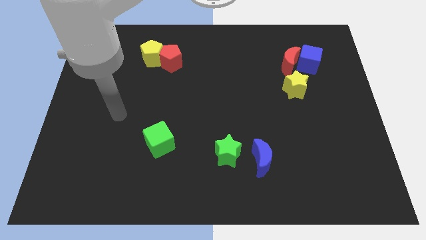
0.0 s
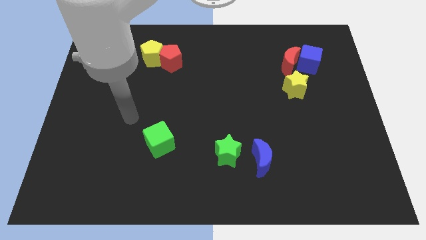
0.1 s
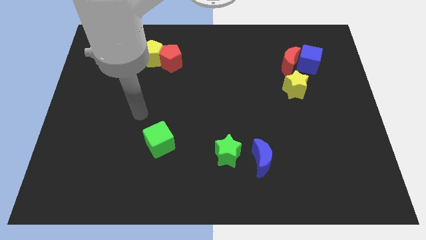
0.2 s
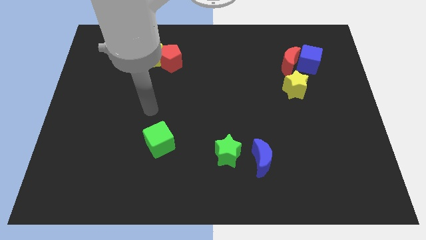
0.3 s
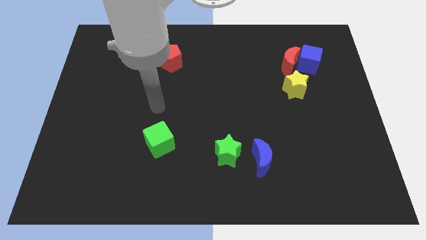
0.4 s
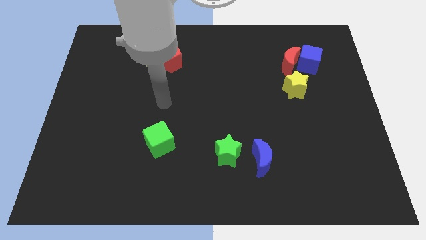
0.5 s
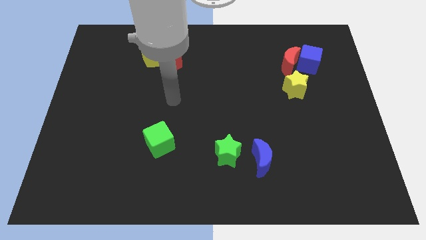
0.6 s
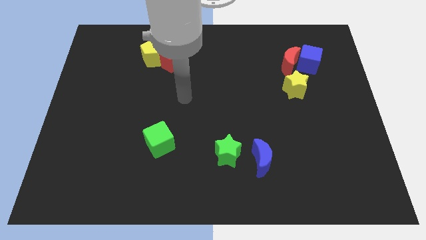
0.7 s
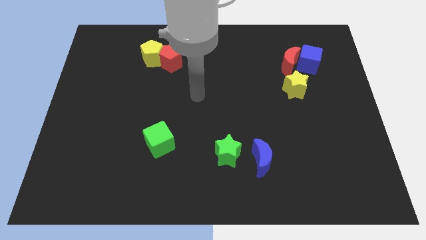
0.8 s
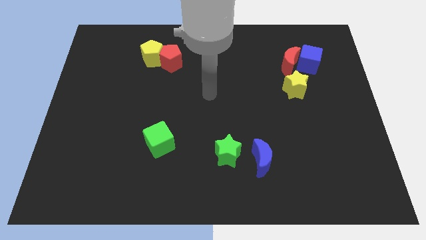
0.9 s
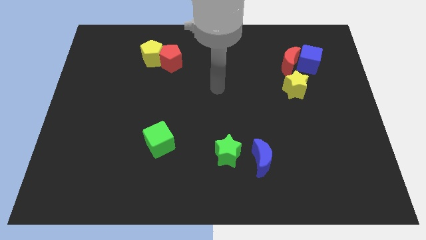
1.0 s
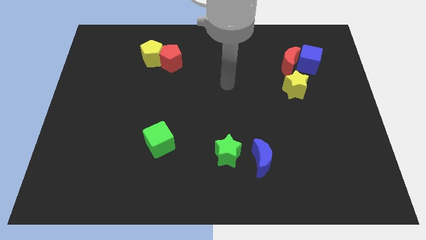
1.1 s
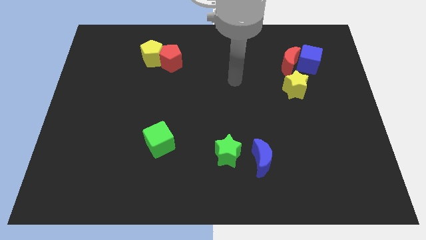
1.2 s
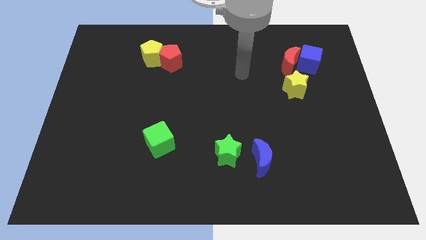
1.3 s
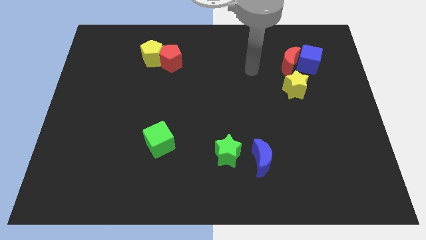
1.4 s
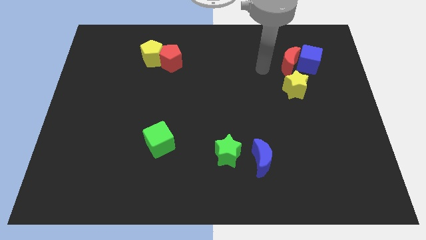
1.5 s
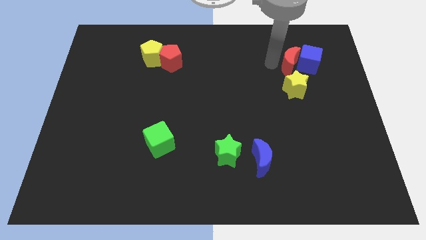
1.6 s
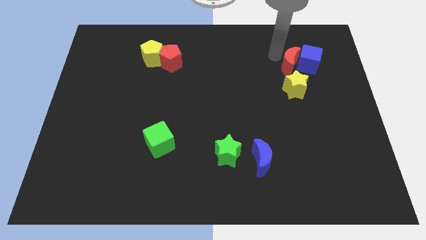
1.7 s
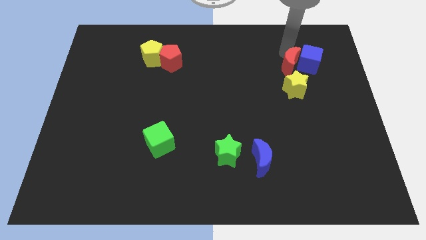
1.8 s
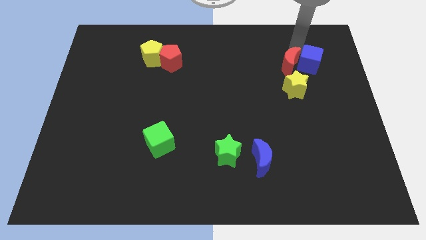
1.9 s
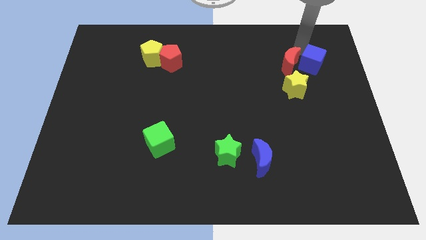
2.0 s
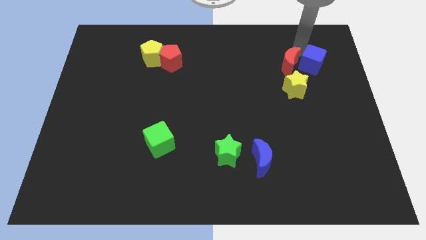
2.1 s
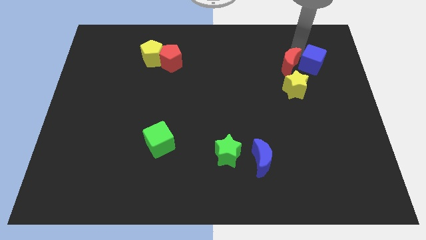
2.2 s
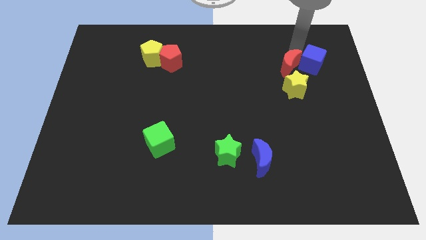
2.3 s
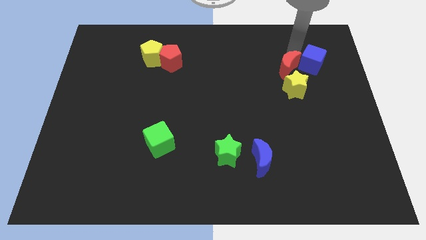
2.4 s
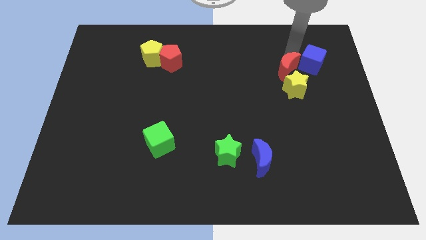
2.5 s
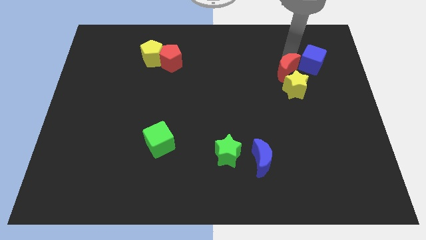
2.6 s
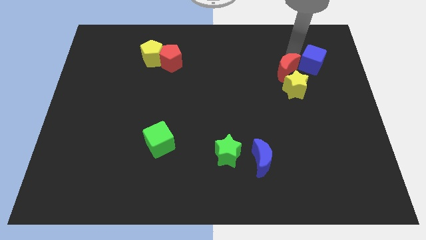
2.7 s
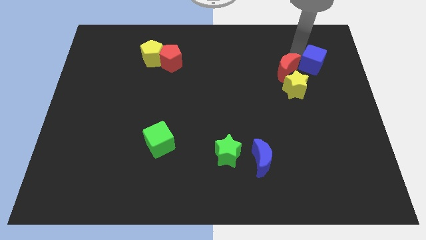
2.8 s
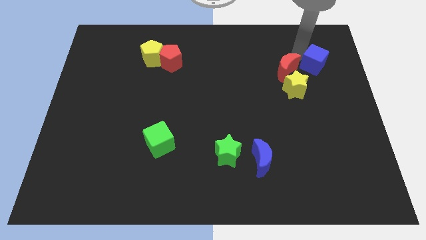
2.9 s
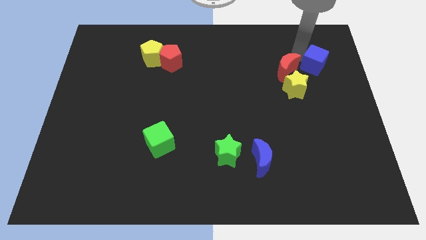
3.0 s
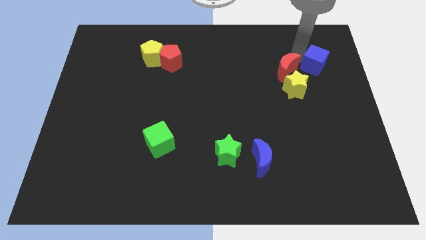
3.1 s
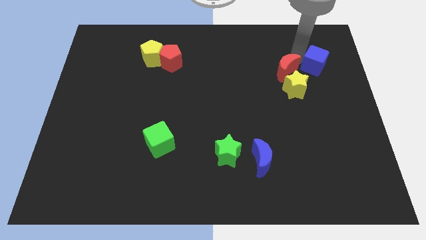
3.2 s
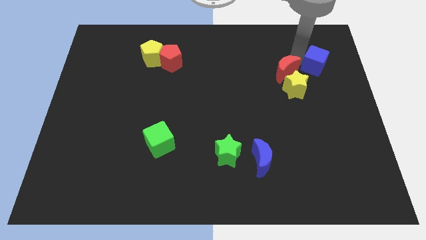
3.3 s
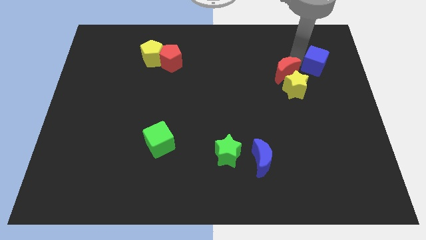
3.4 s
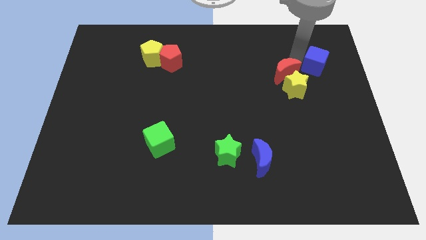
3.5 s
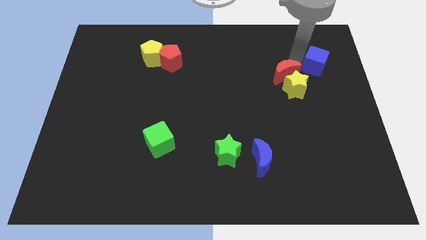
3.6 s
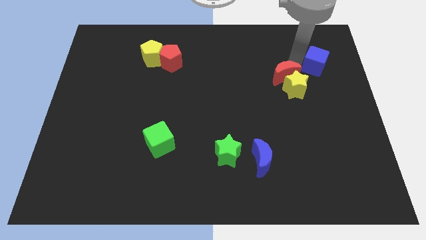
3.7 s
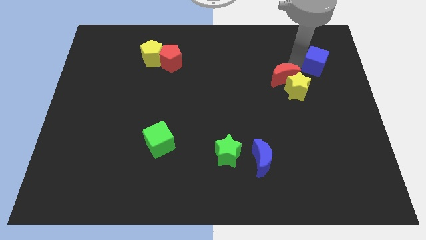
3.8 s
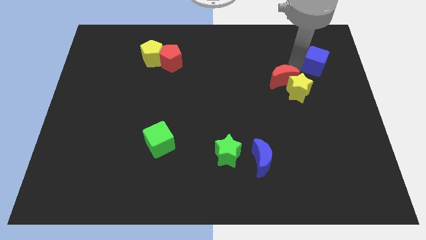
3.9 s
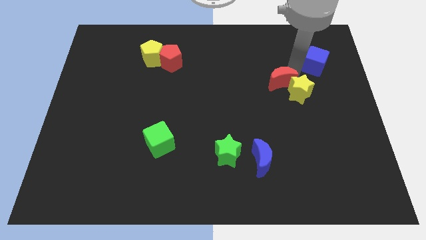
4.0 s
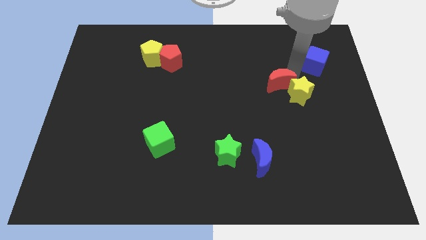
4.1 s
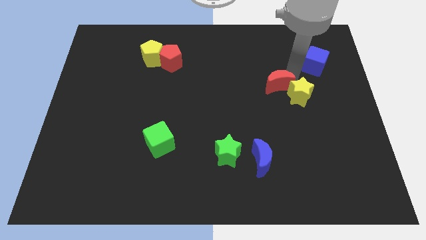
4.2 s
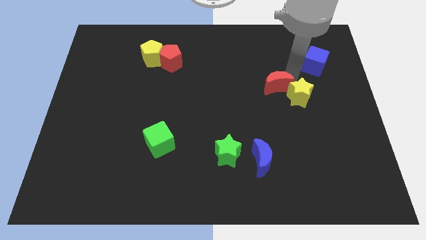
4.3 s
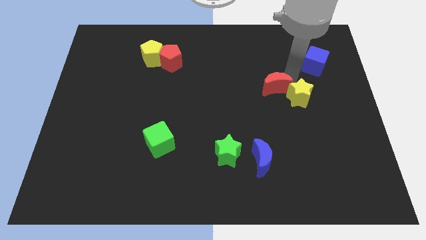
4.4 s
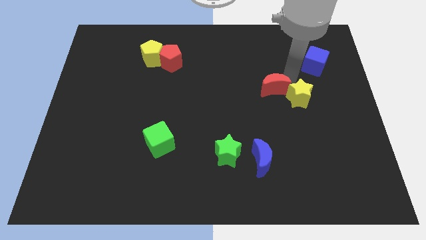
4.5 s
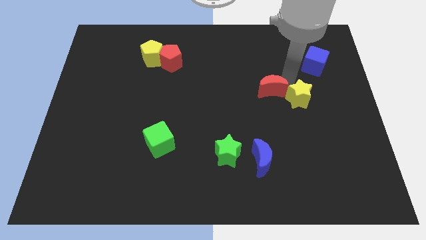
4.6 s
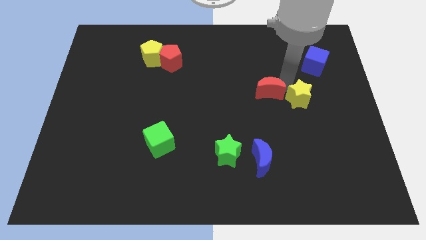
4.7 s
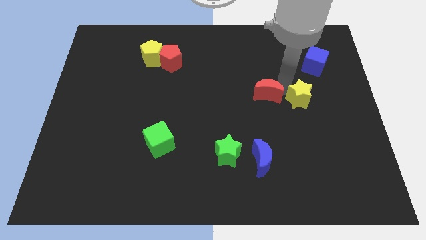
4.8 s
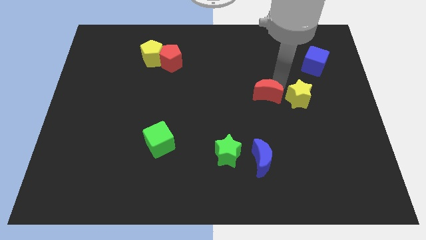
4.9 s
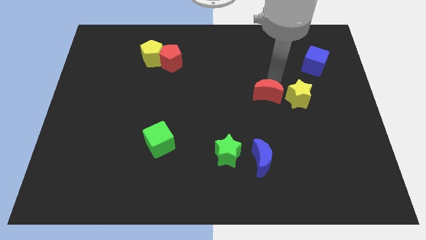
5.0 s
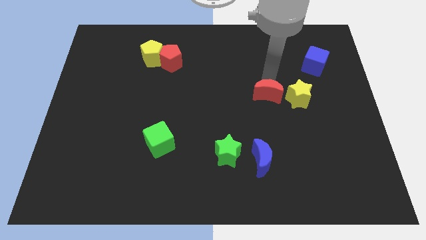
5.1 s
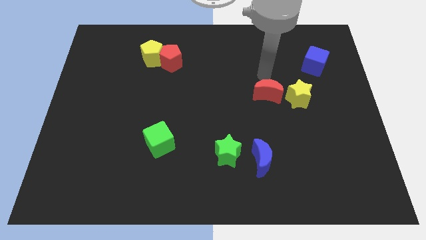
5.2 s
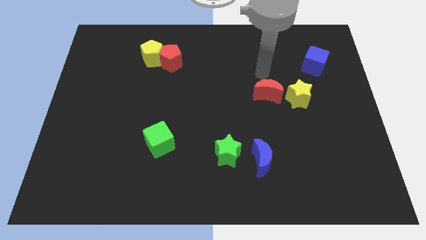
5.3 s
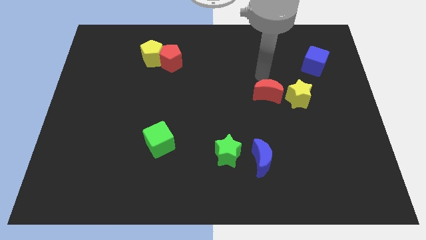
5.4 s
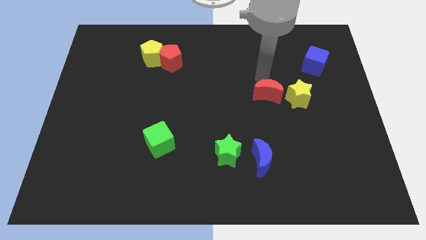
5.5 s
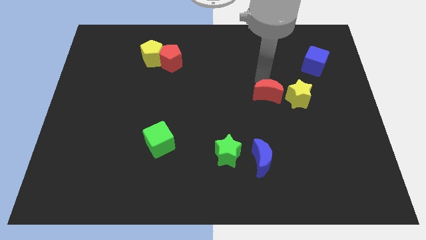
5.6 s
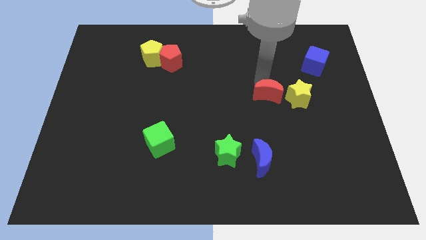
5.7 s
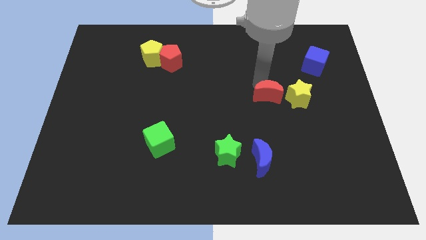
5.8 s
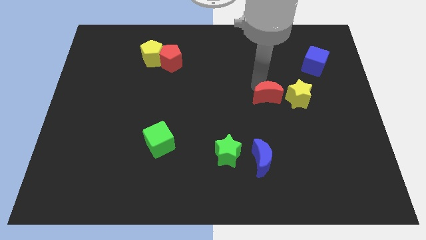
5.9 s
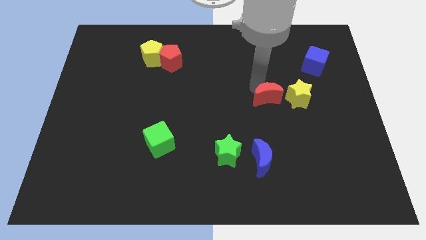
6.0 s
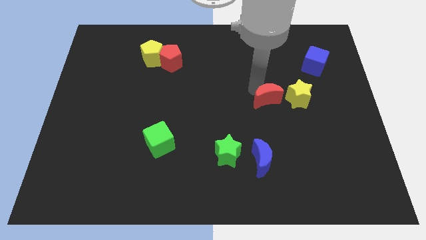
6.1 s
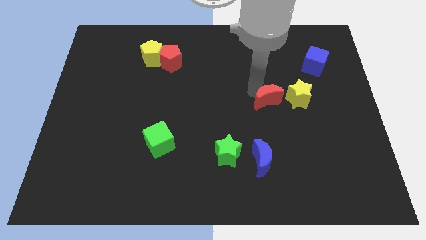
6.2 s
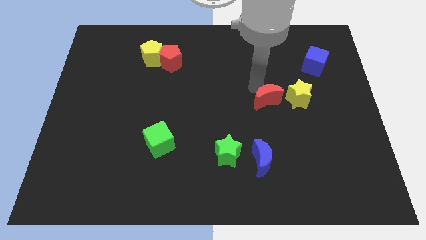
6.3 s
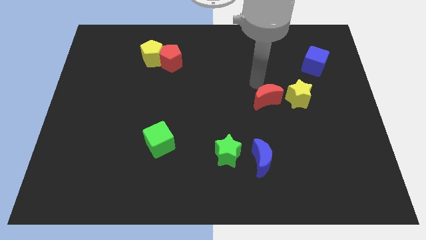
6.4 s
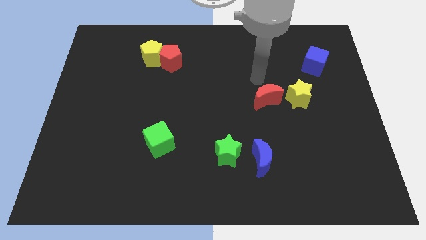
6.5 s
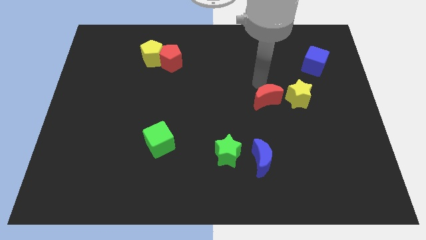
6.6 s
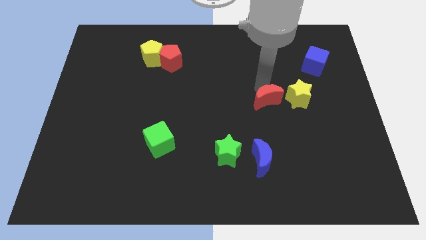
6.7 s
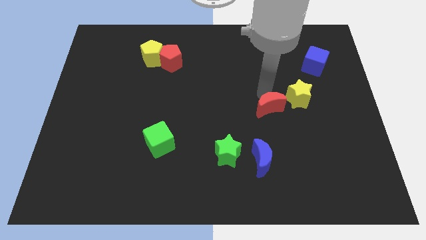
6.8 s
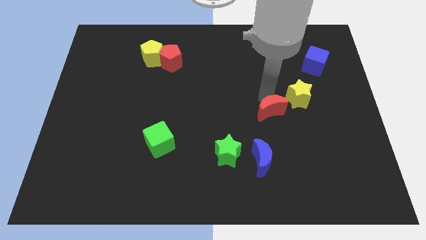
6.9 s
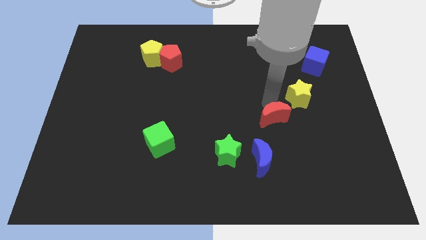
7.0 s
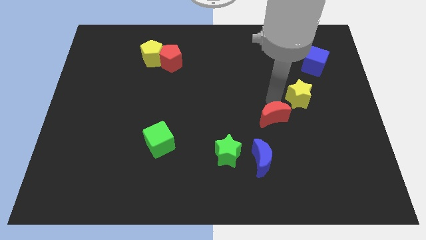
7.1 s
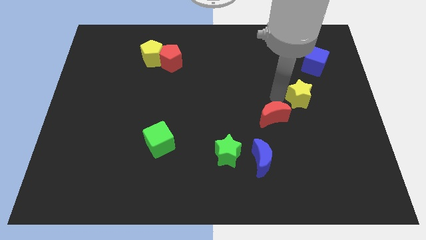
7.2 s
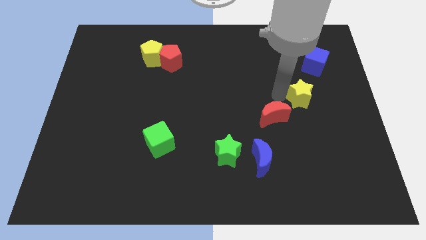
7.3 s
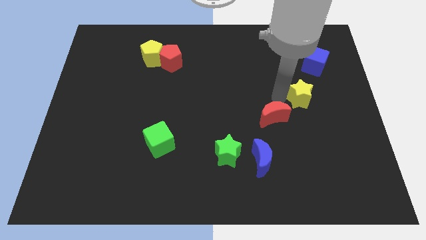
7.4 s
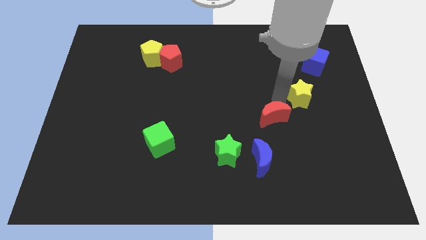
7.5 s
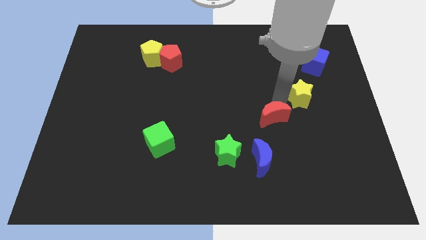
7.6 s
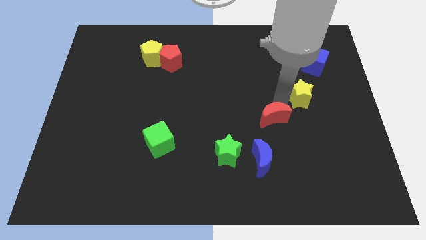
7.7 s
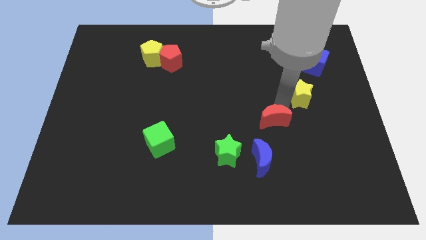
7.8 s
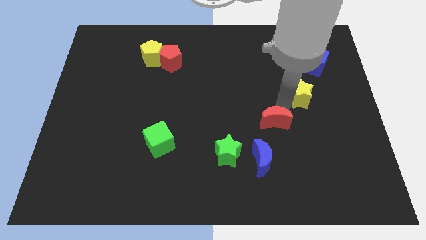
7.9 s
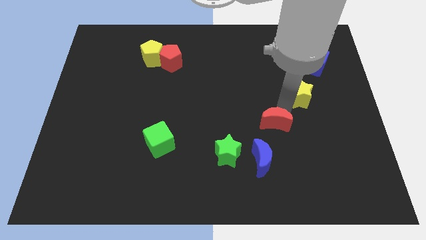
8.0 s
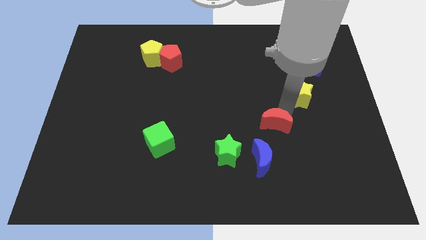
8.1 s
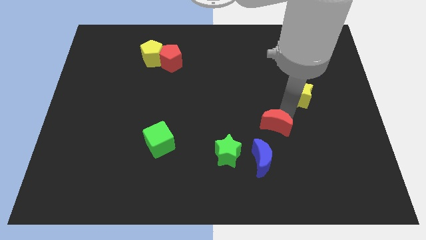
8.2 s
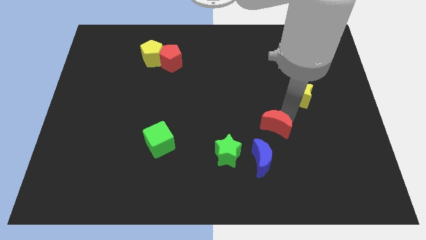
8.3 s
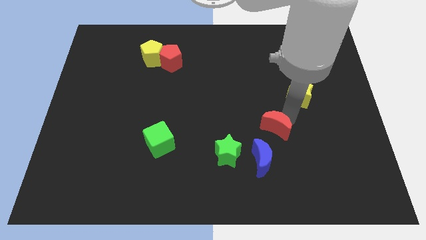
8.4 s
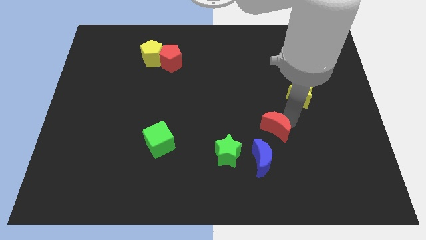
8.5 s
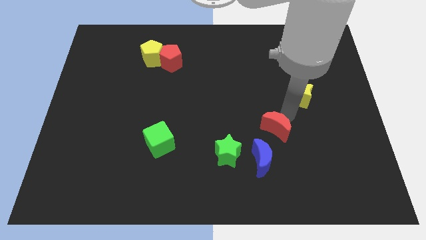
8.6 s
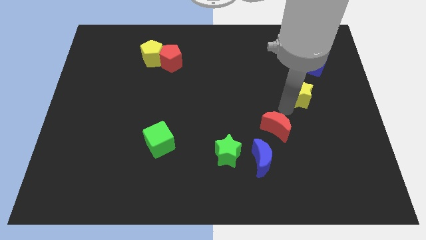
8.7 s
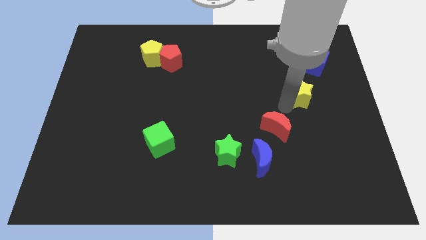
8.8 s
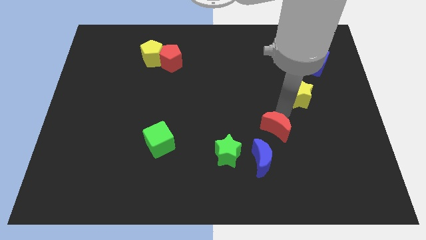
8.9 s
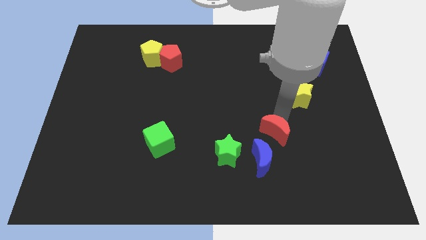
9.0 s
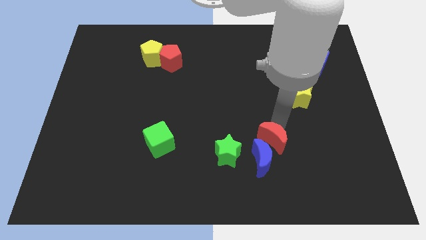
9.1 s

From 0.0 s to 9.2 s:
slide the red moon next to the blue moon
